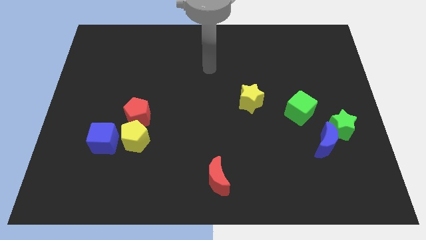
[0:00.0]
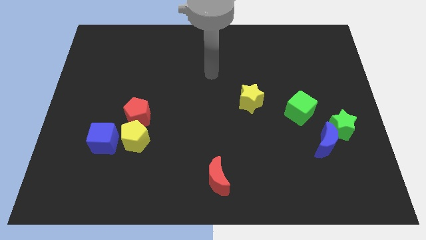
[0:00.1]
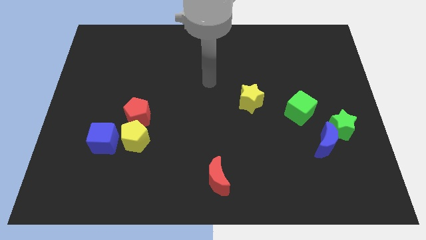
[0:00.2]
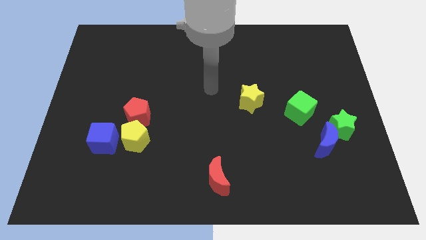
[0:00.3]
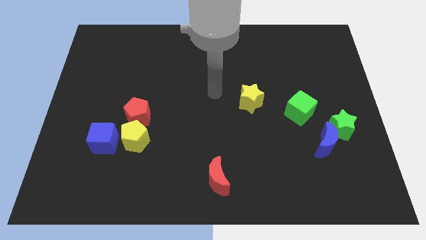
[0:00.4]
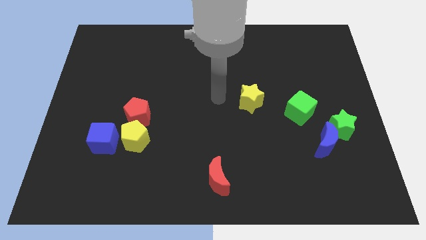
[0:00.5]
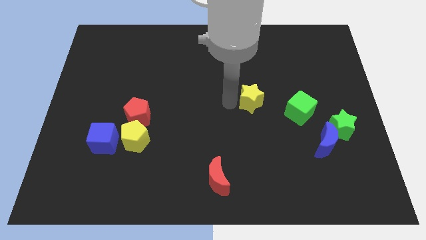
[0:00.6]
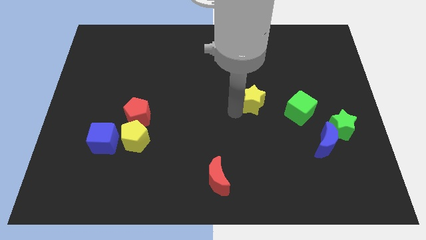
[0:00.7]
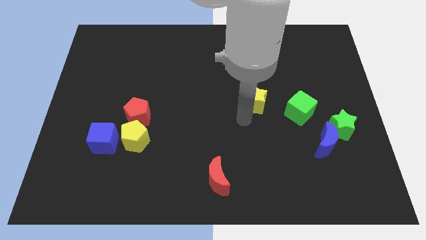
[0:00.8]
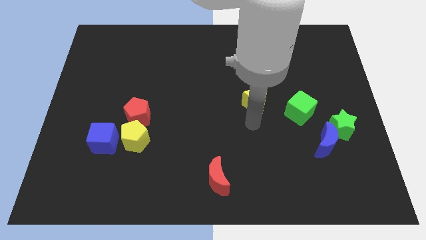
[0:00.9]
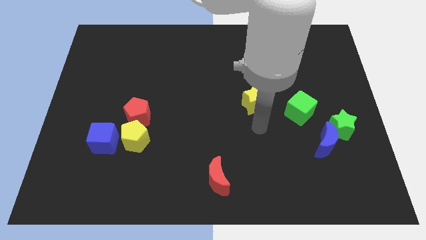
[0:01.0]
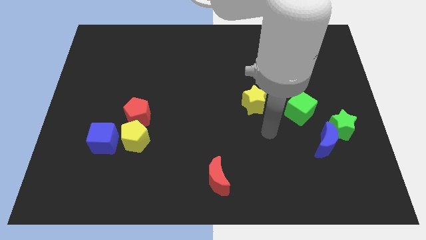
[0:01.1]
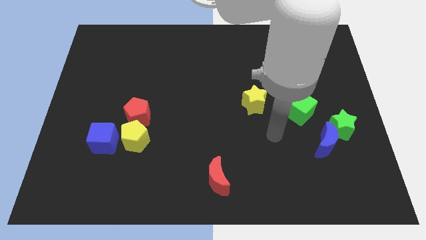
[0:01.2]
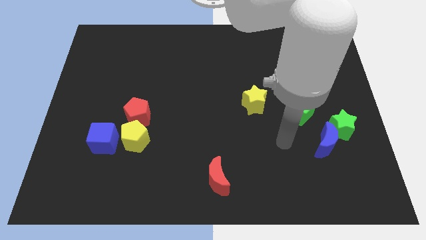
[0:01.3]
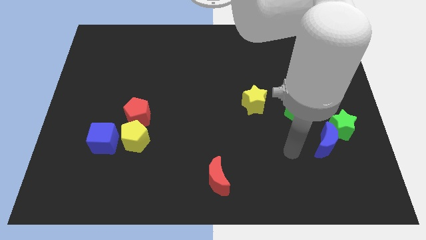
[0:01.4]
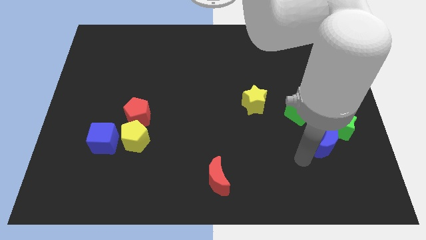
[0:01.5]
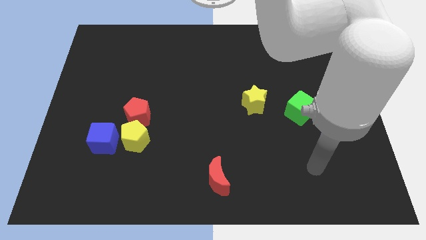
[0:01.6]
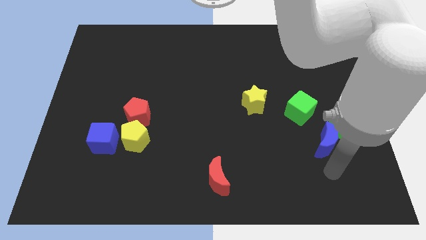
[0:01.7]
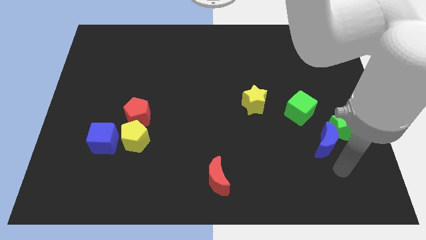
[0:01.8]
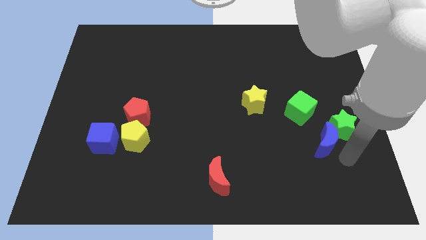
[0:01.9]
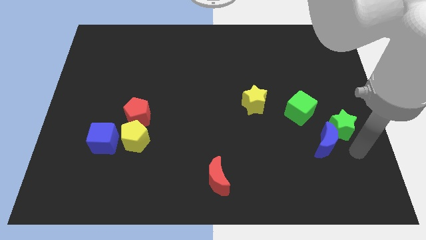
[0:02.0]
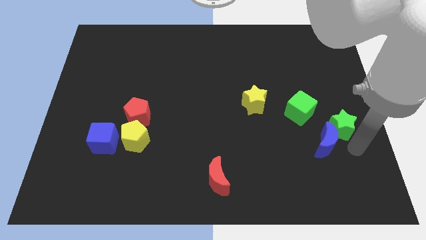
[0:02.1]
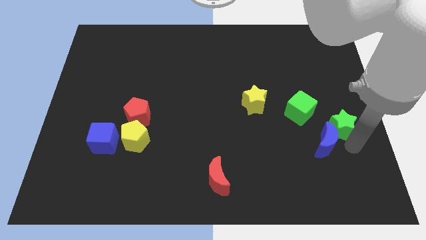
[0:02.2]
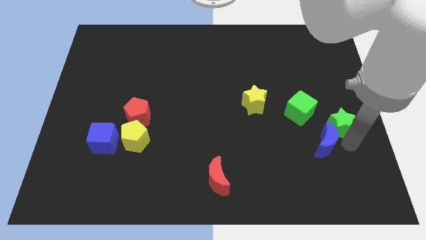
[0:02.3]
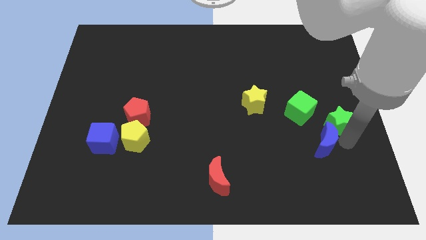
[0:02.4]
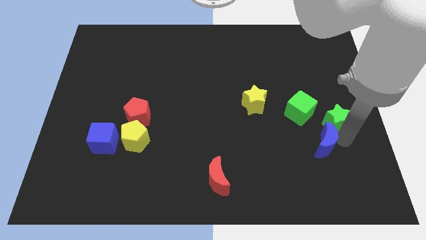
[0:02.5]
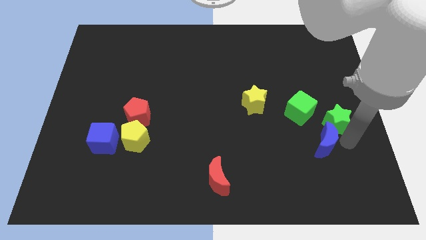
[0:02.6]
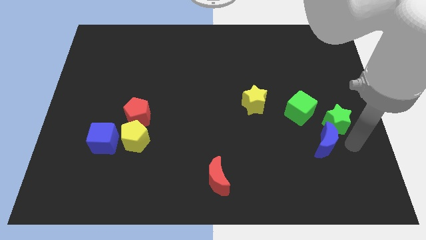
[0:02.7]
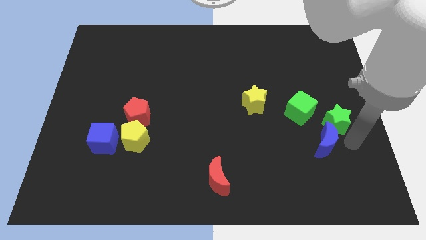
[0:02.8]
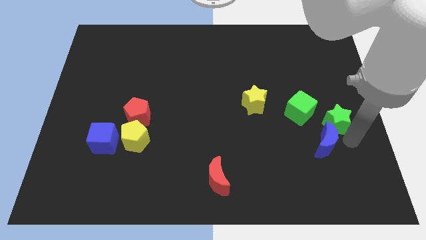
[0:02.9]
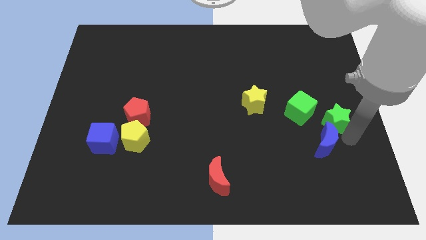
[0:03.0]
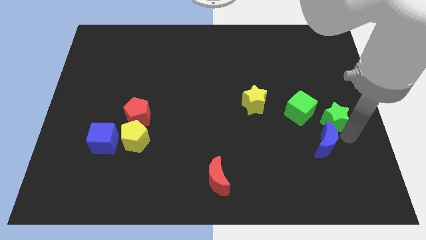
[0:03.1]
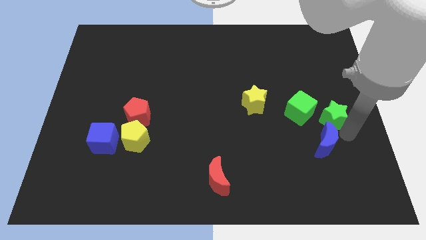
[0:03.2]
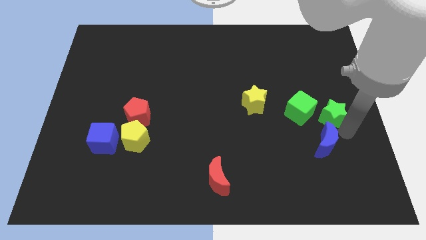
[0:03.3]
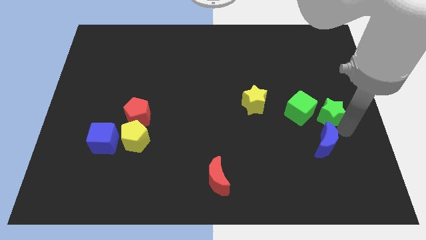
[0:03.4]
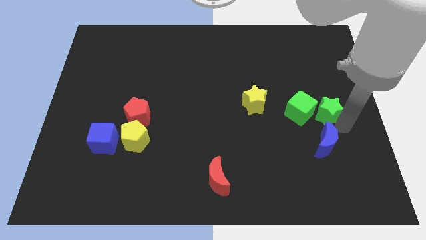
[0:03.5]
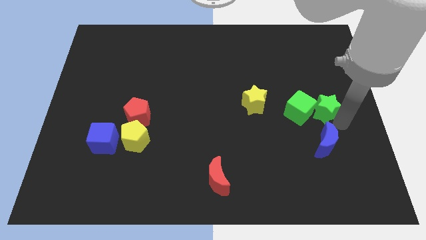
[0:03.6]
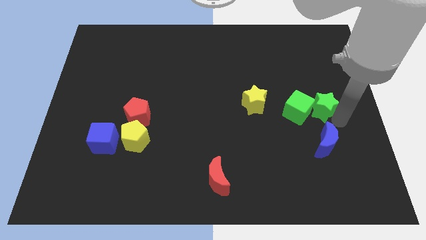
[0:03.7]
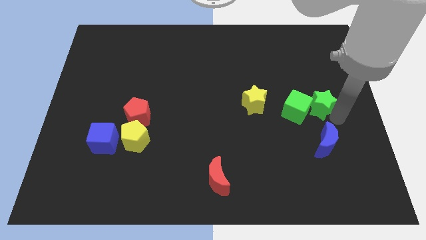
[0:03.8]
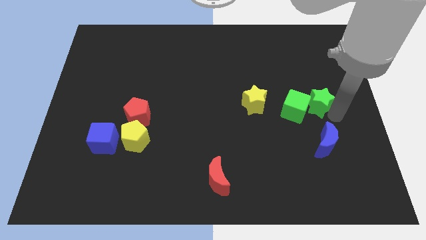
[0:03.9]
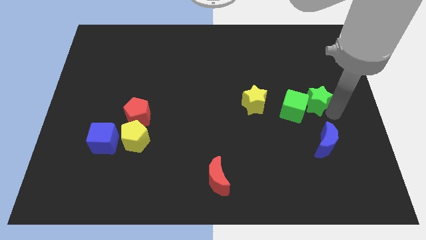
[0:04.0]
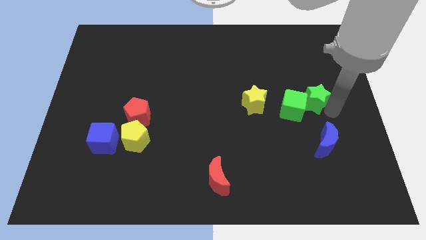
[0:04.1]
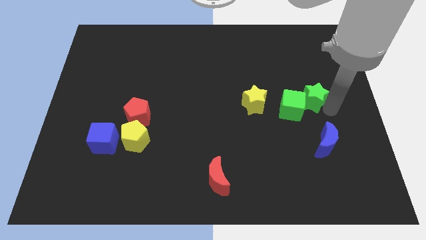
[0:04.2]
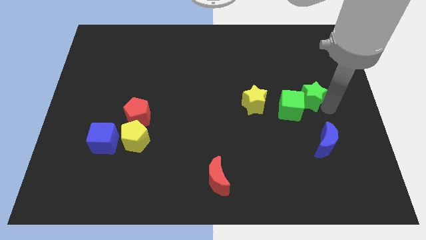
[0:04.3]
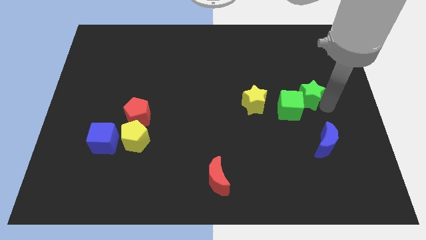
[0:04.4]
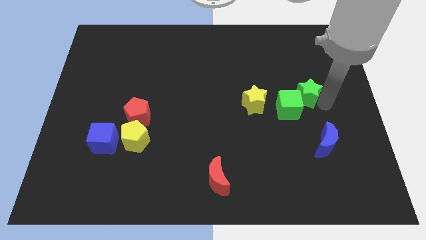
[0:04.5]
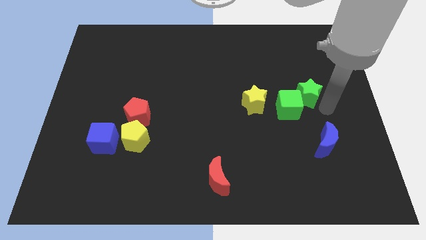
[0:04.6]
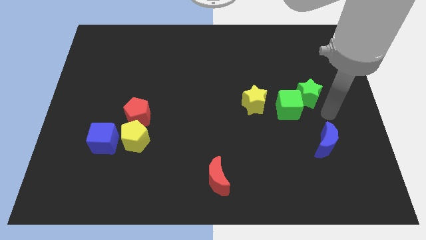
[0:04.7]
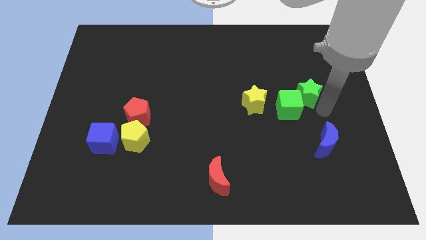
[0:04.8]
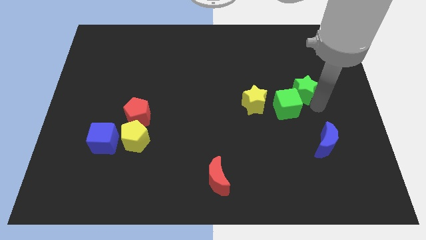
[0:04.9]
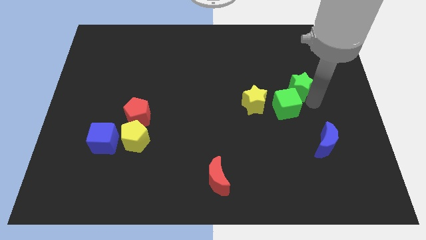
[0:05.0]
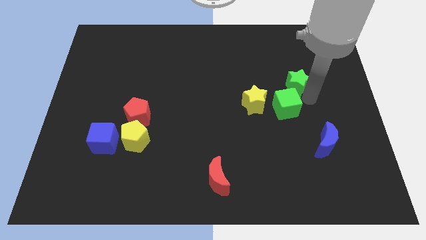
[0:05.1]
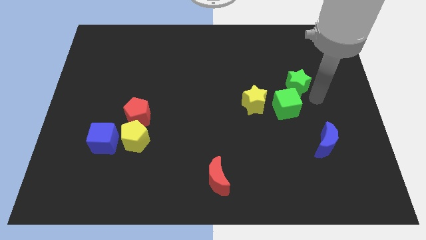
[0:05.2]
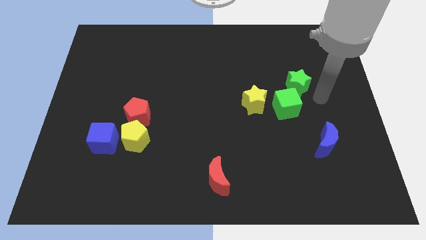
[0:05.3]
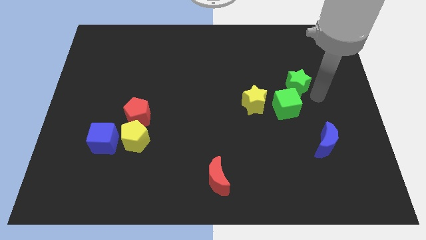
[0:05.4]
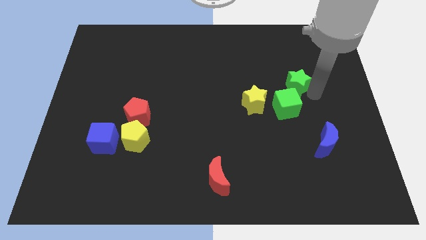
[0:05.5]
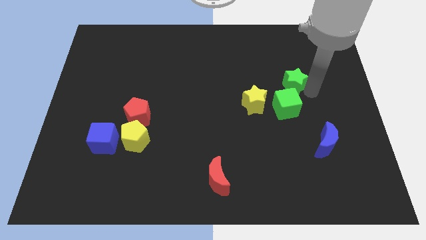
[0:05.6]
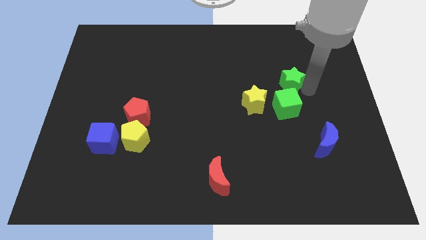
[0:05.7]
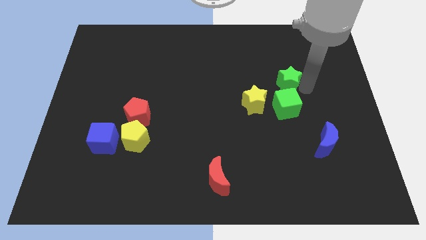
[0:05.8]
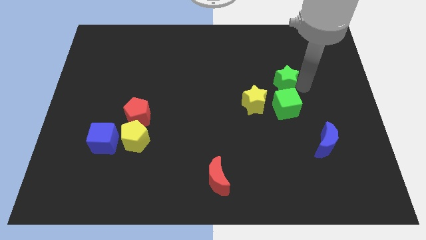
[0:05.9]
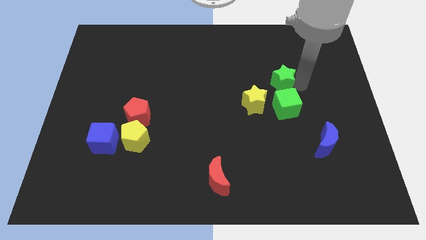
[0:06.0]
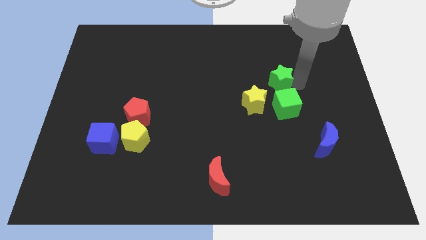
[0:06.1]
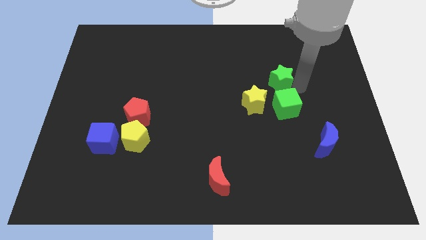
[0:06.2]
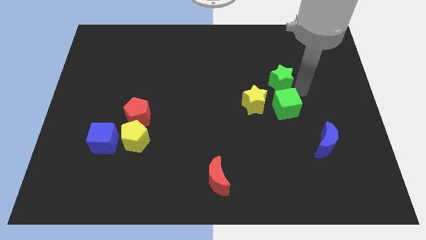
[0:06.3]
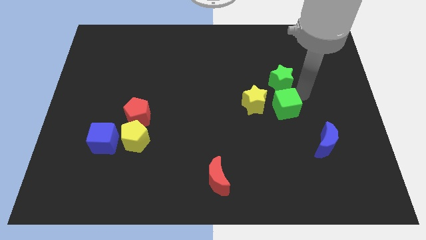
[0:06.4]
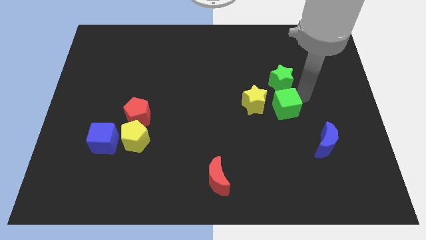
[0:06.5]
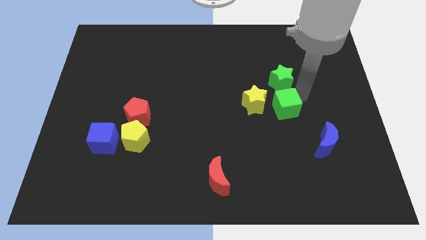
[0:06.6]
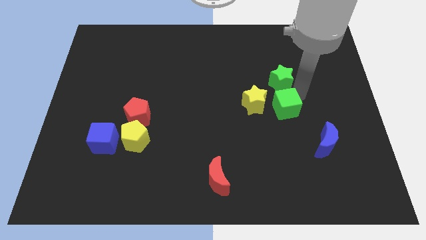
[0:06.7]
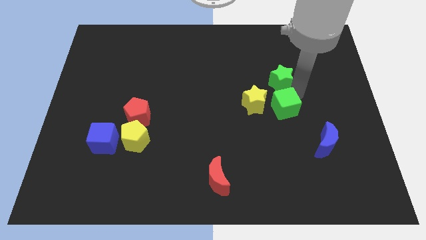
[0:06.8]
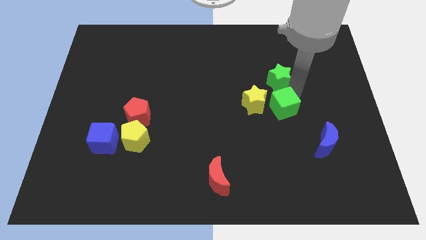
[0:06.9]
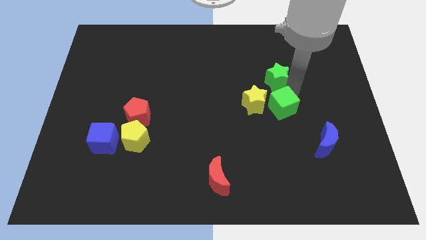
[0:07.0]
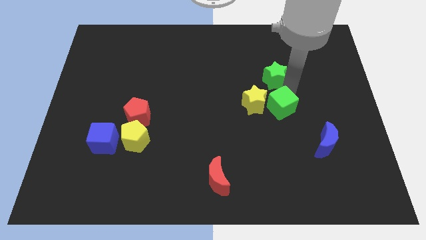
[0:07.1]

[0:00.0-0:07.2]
push the green star upwards and to the left diagonally

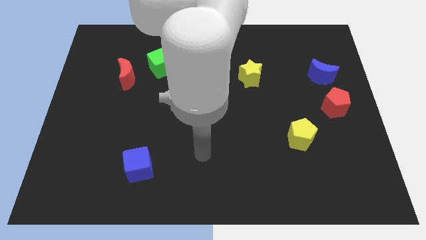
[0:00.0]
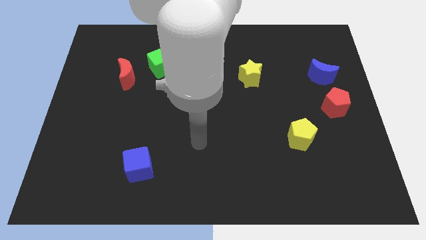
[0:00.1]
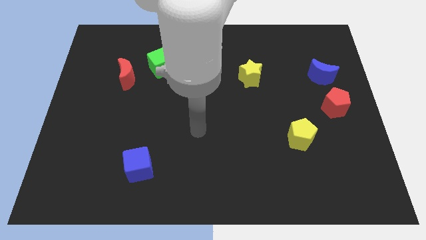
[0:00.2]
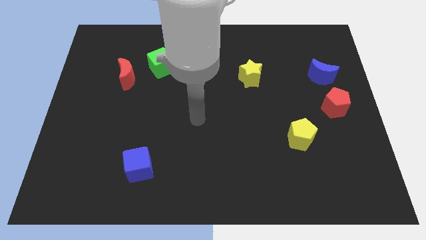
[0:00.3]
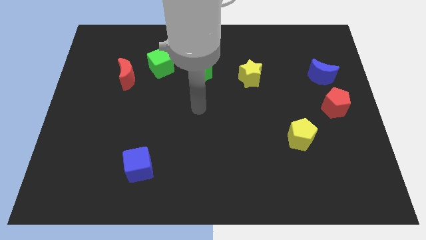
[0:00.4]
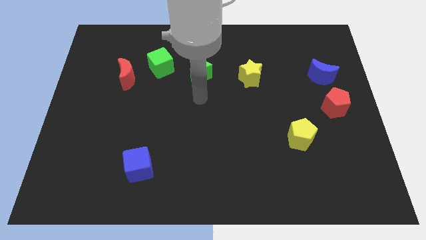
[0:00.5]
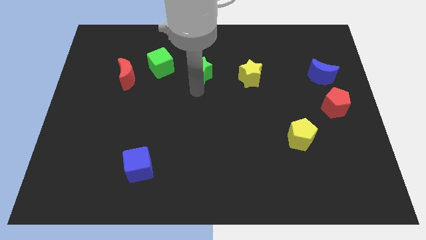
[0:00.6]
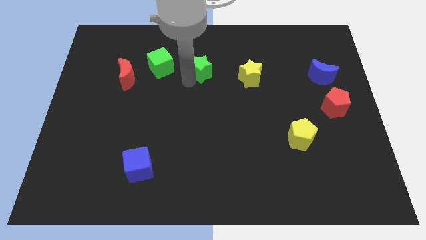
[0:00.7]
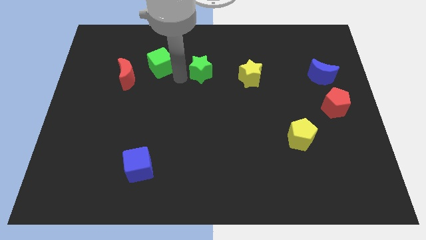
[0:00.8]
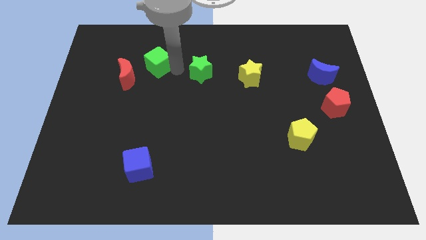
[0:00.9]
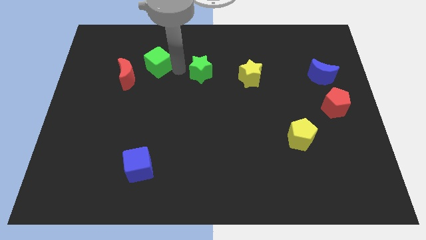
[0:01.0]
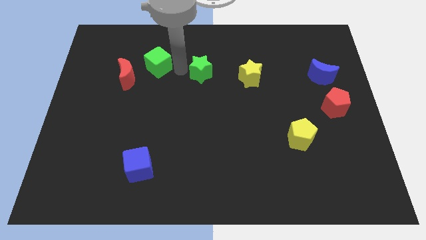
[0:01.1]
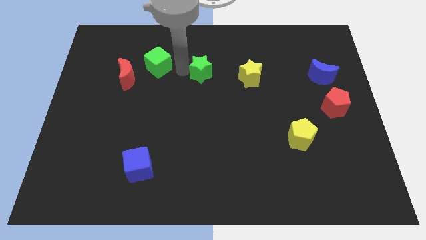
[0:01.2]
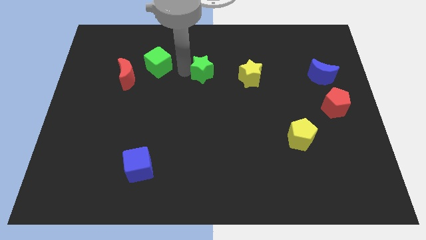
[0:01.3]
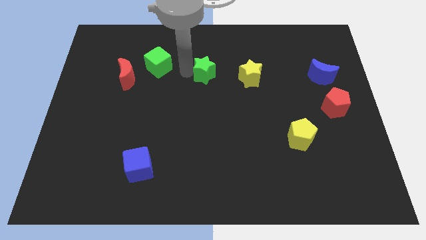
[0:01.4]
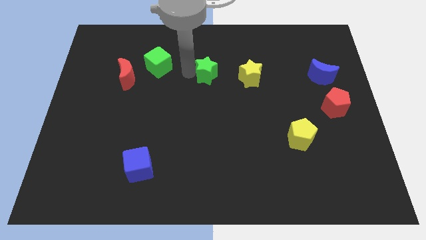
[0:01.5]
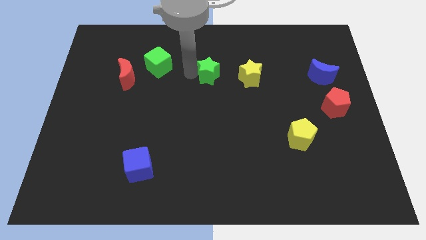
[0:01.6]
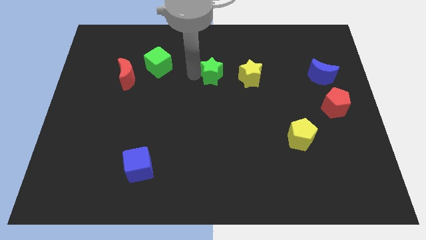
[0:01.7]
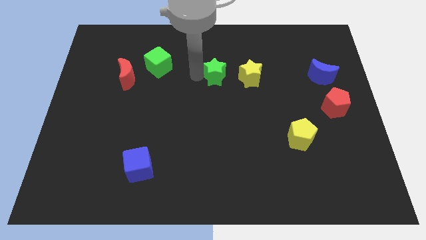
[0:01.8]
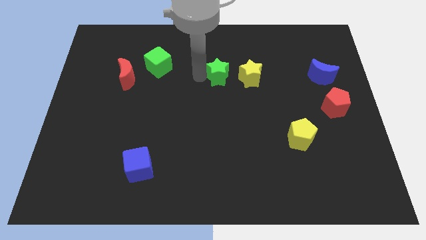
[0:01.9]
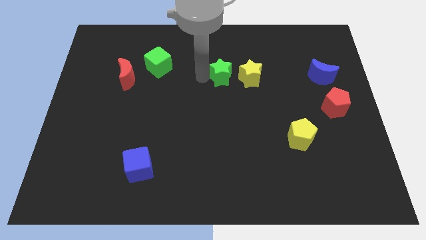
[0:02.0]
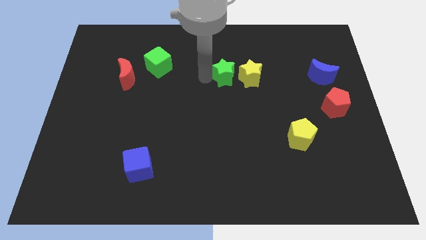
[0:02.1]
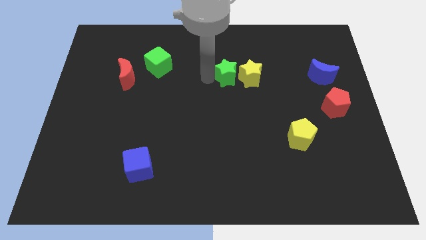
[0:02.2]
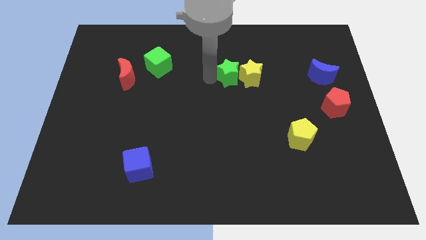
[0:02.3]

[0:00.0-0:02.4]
slightly move the green star to the right
